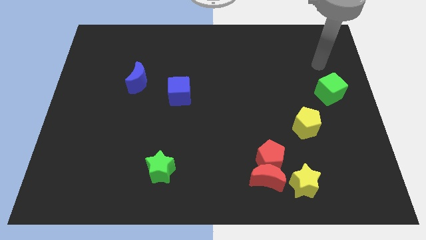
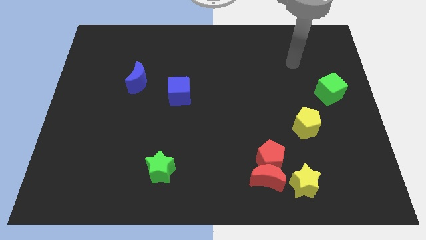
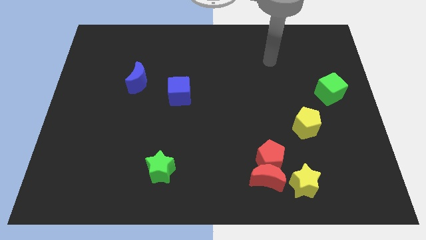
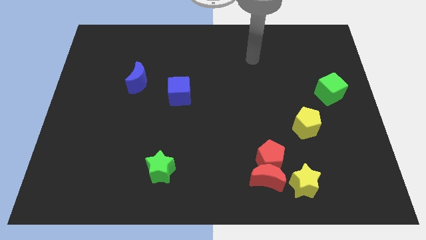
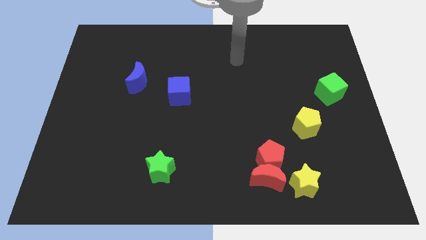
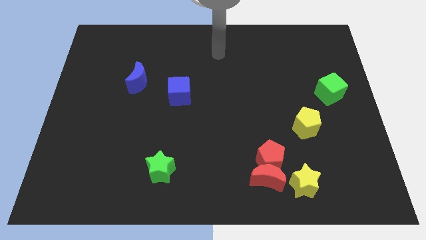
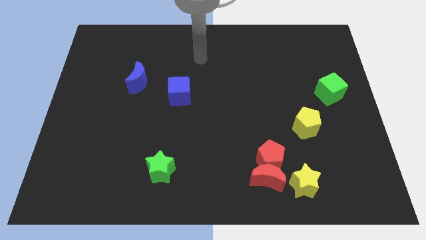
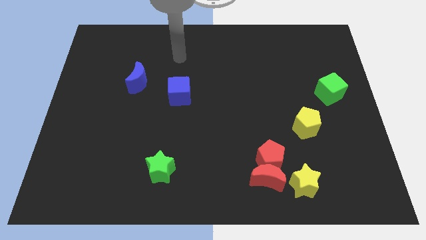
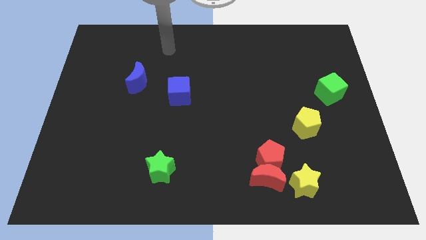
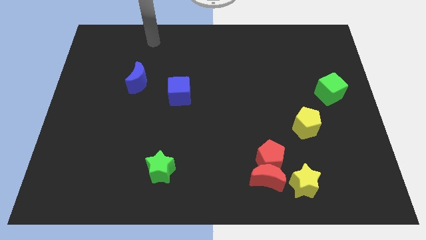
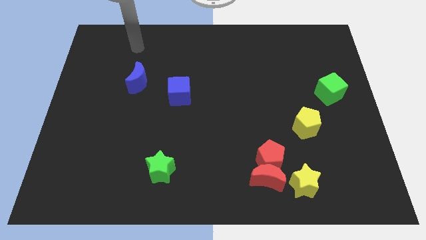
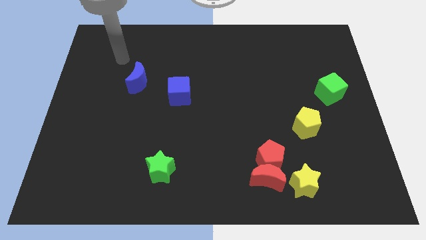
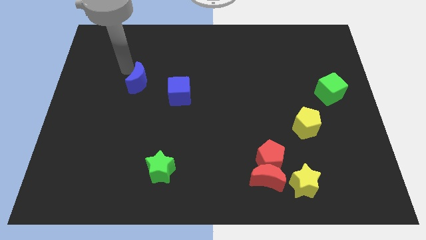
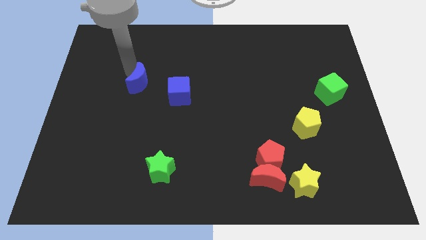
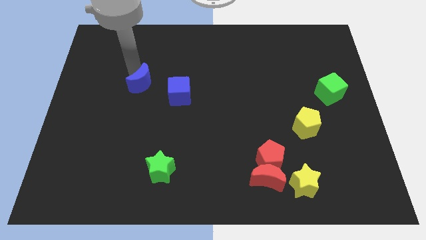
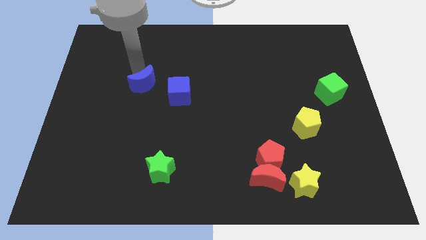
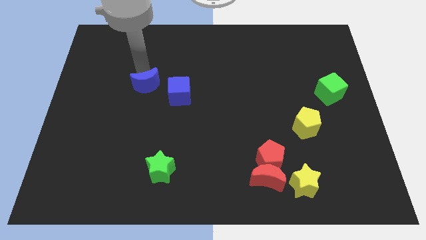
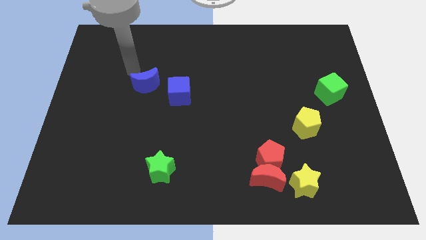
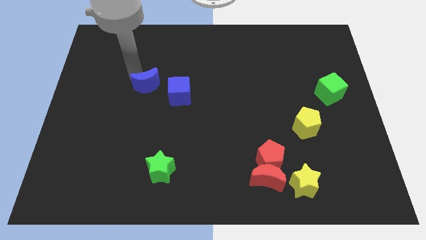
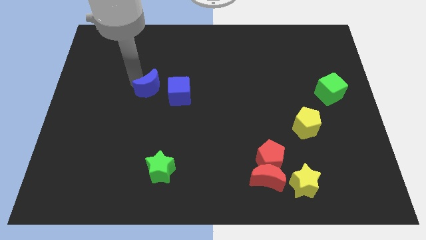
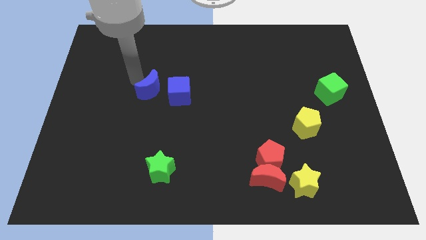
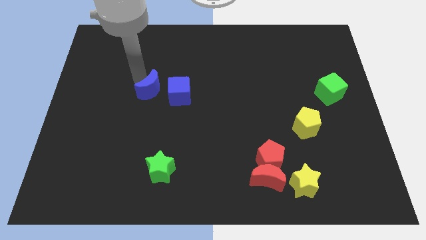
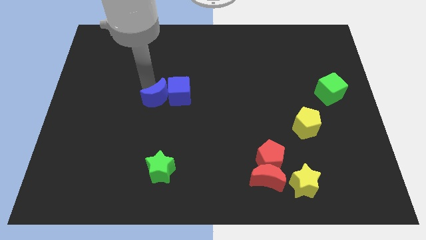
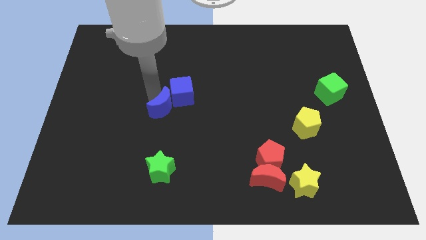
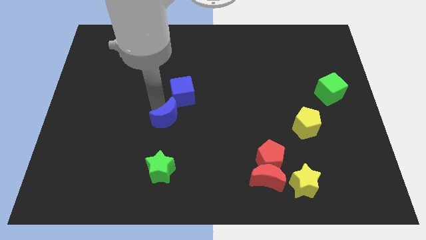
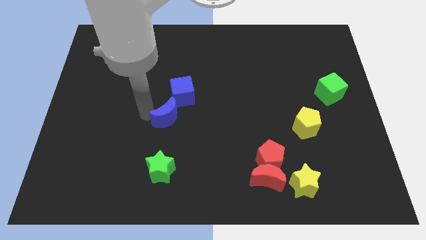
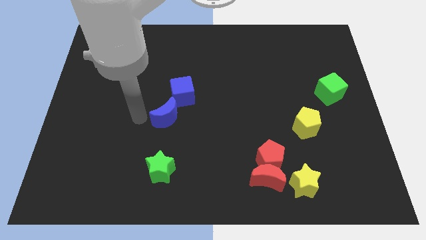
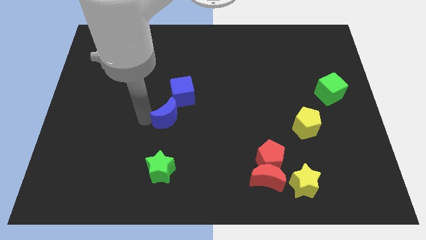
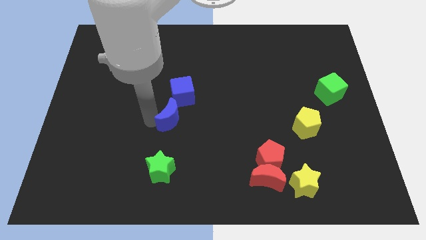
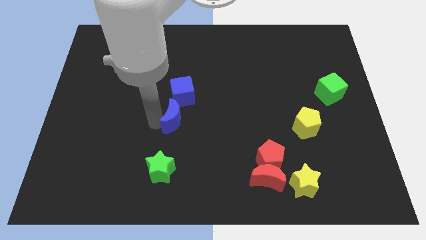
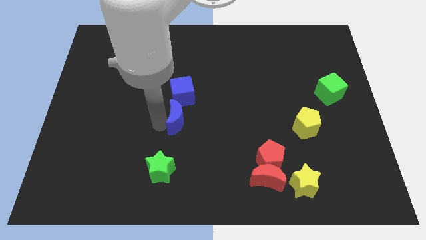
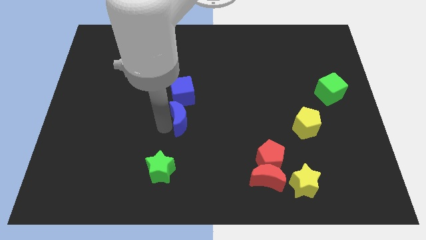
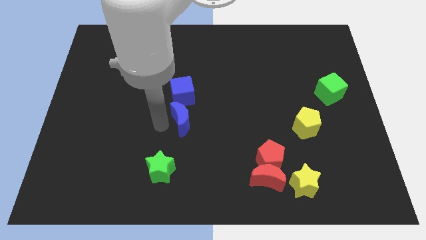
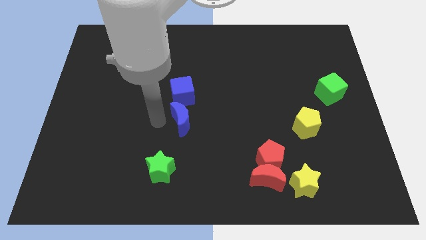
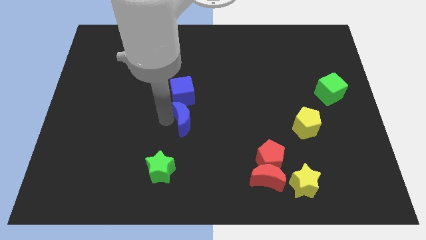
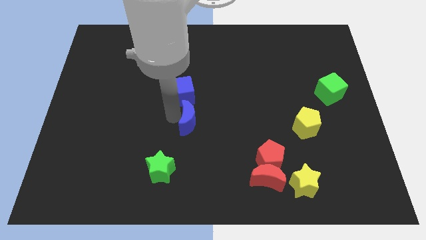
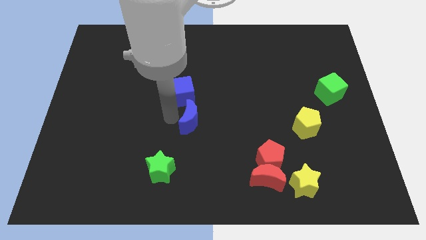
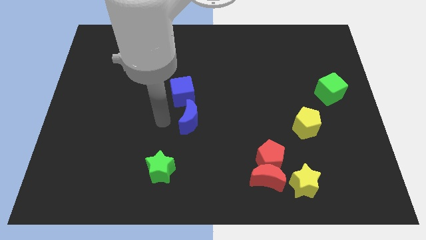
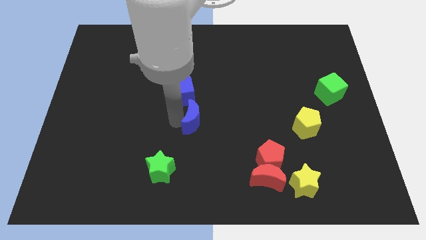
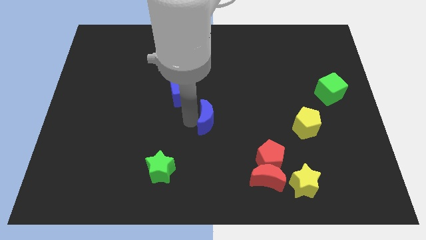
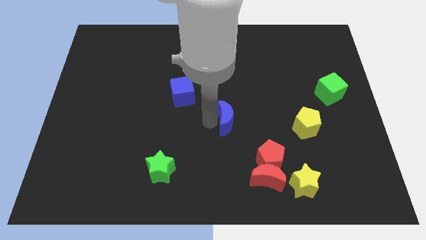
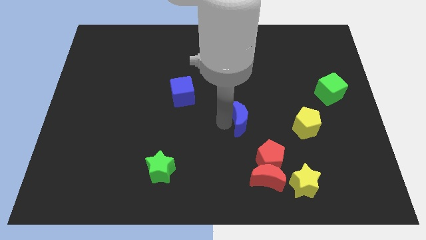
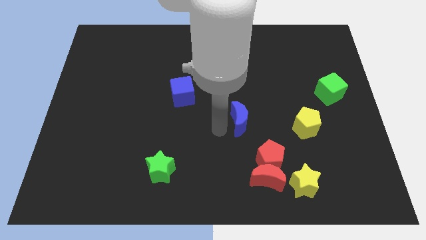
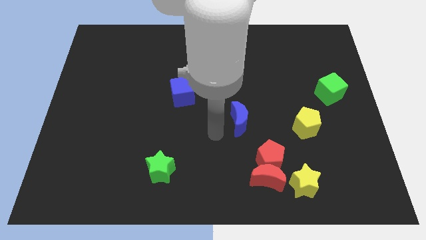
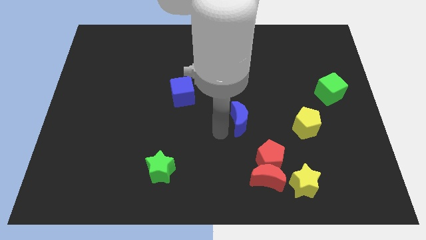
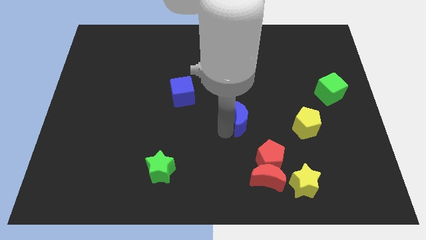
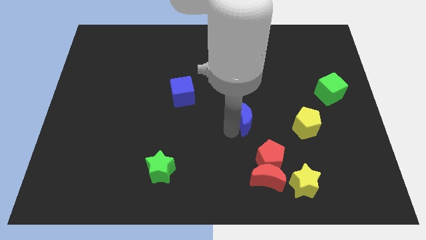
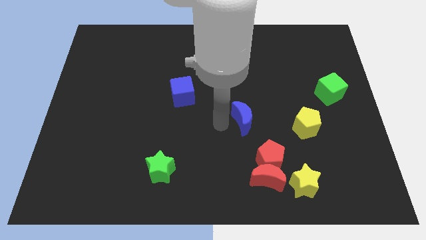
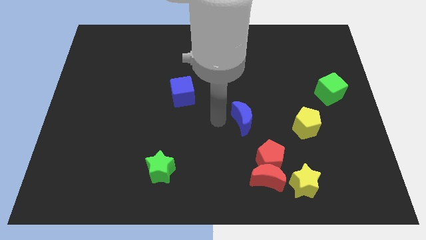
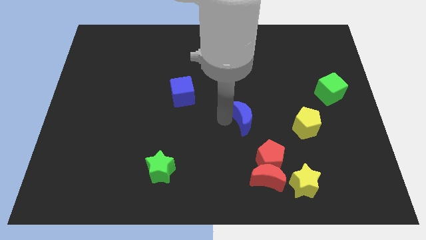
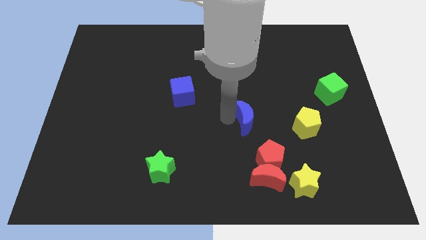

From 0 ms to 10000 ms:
push the blue moon above the red pentagon

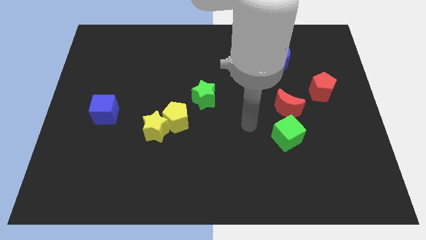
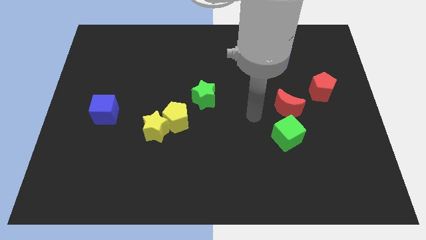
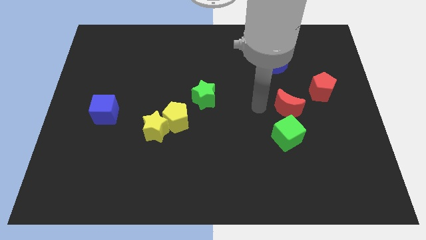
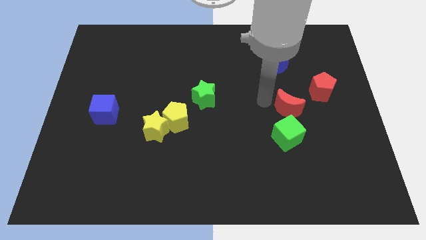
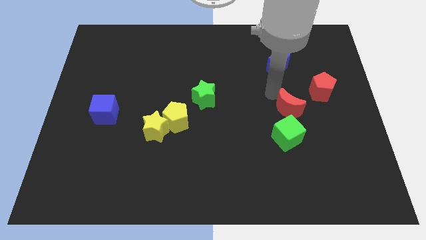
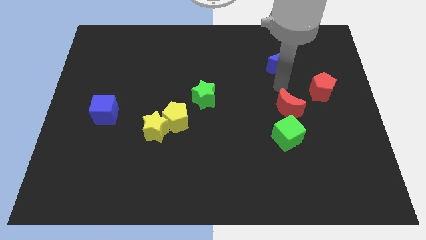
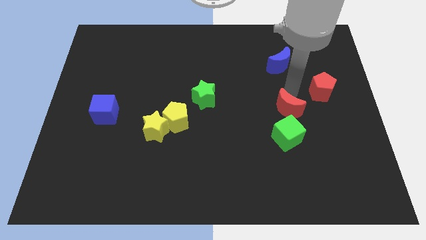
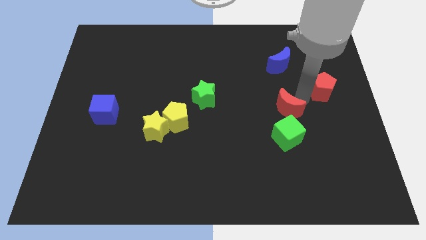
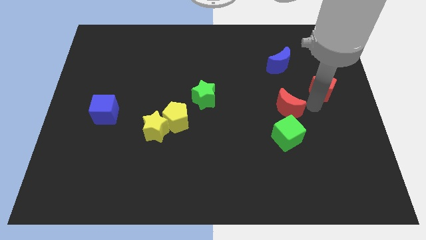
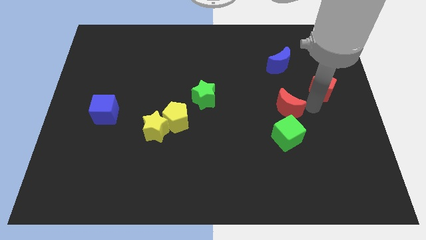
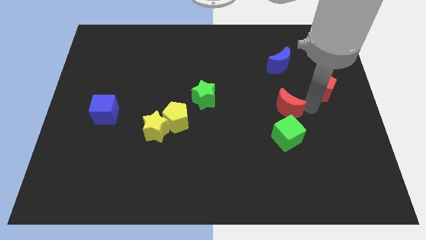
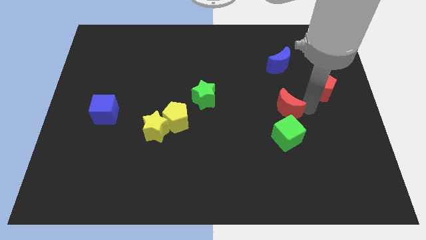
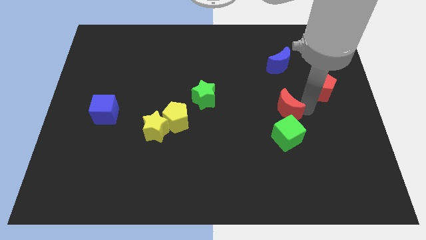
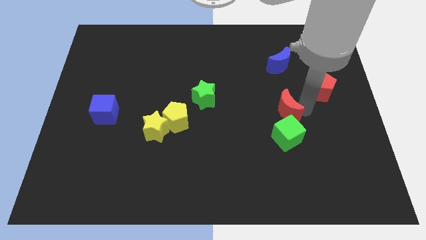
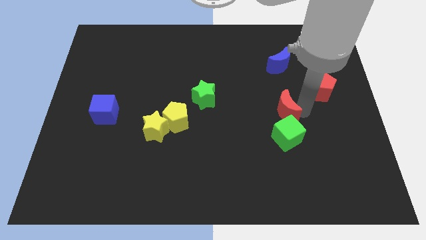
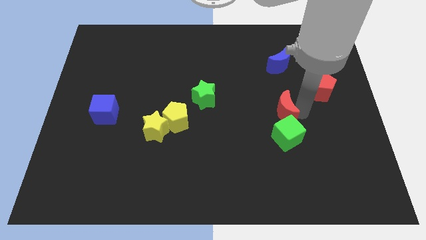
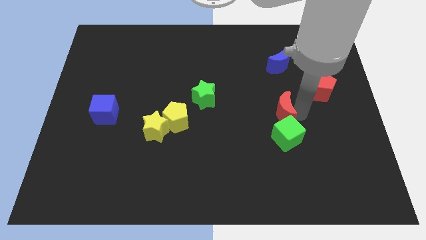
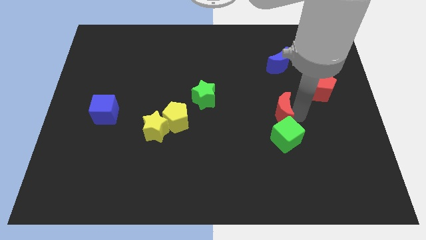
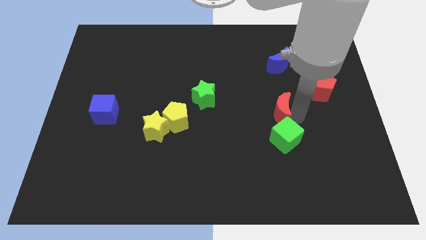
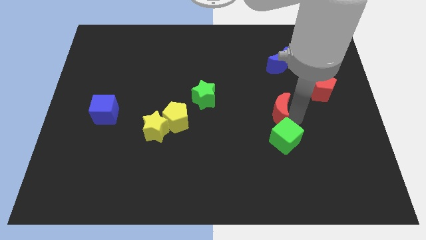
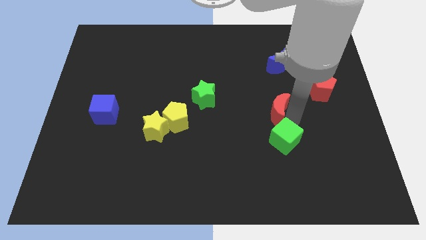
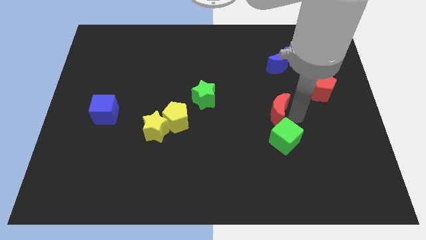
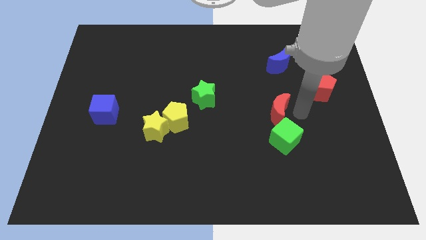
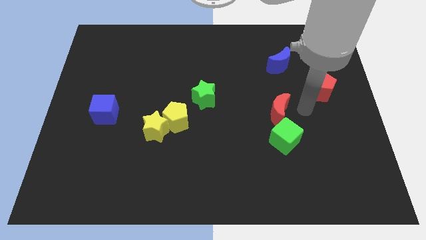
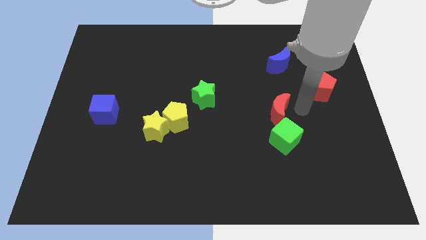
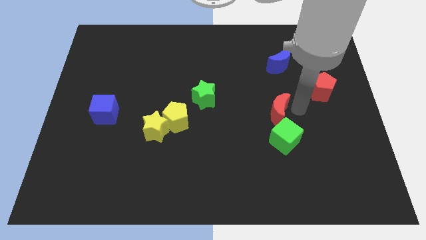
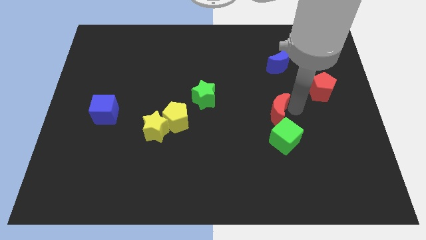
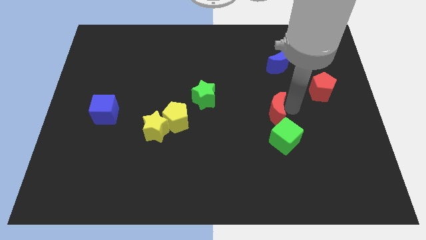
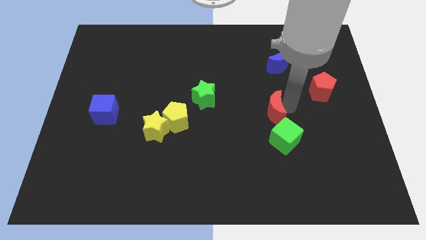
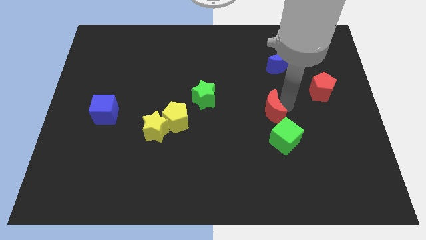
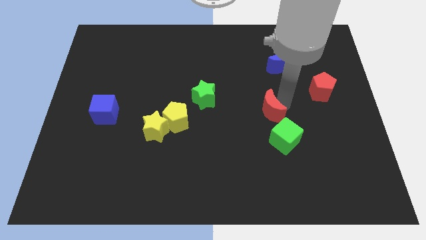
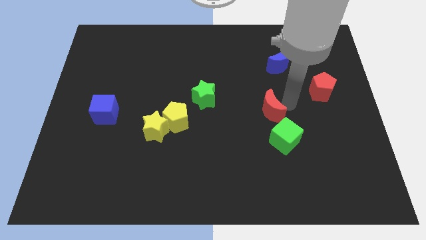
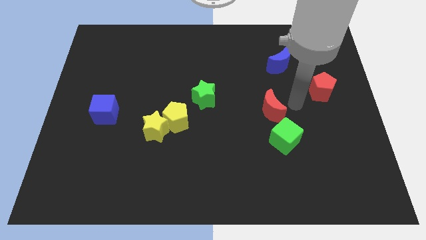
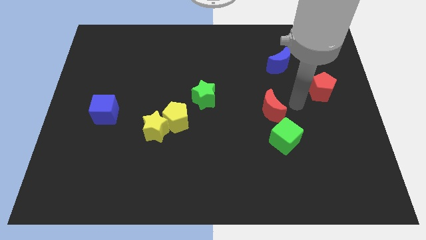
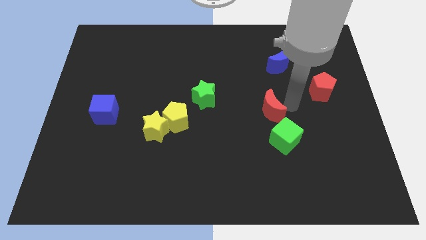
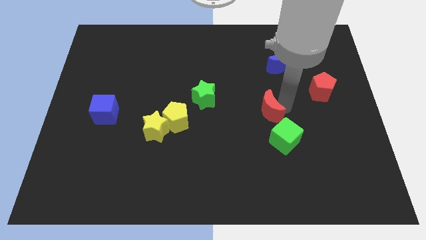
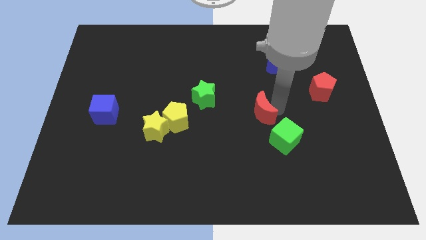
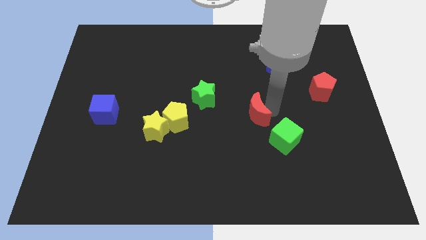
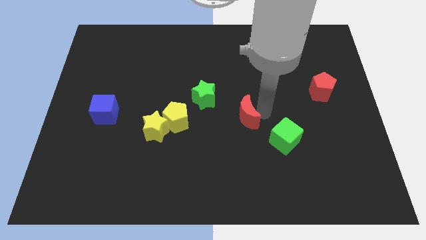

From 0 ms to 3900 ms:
slide the red moon to the right of the yellow pentagon
